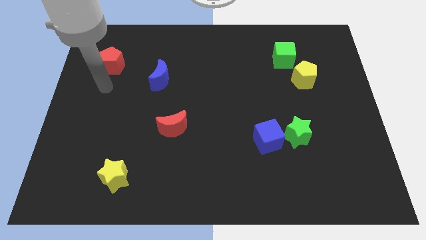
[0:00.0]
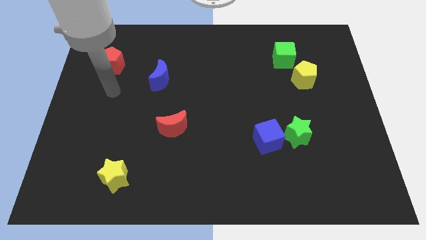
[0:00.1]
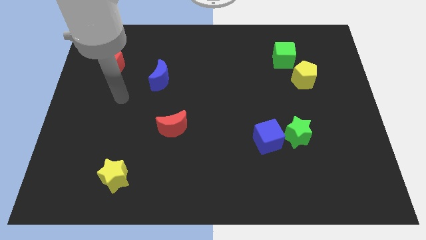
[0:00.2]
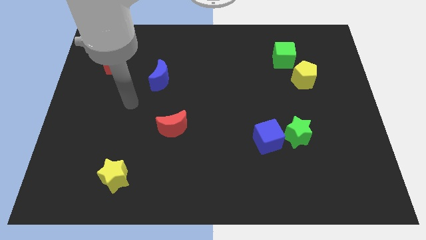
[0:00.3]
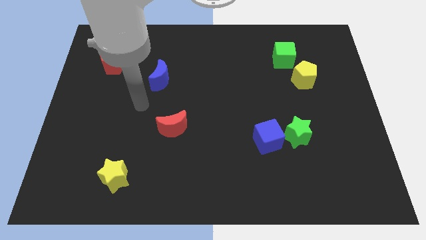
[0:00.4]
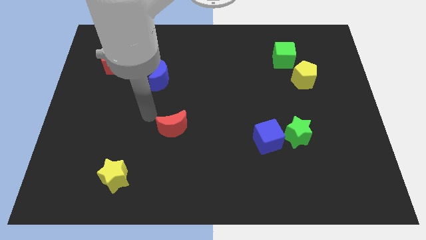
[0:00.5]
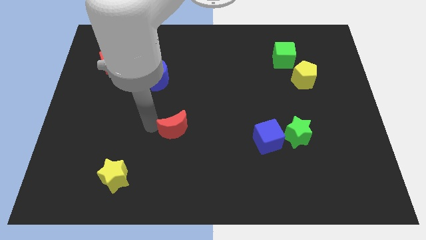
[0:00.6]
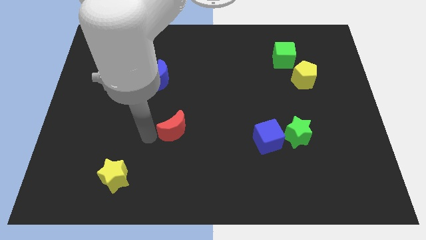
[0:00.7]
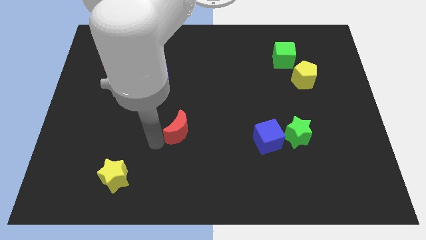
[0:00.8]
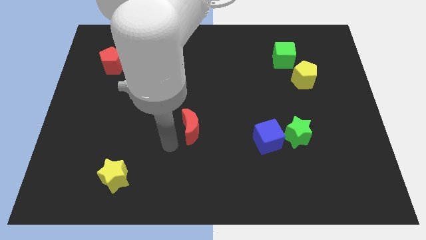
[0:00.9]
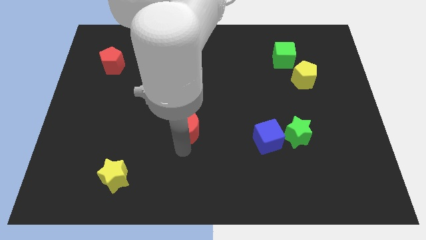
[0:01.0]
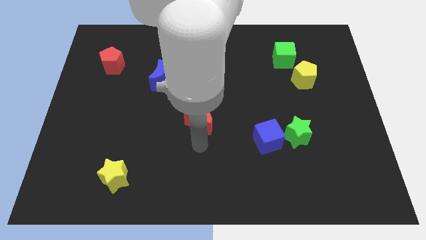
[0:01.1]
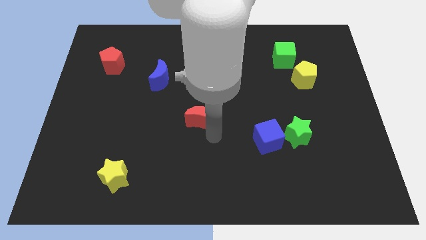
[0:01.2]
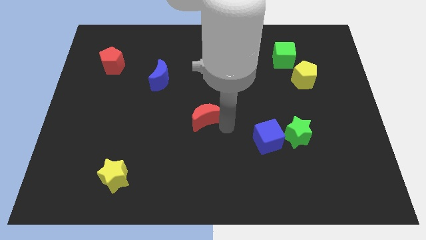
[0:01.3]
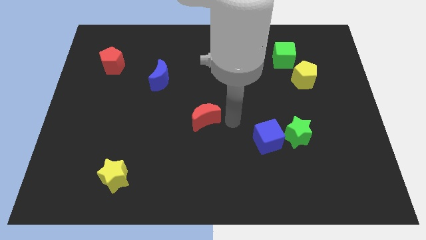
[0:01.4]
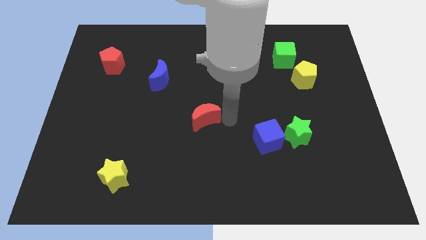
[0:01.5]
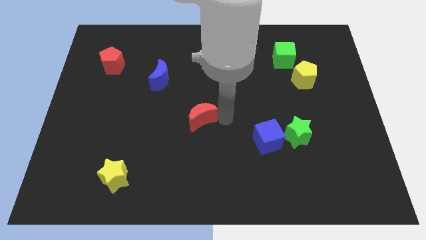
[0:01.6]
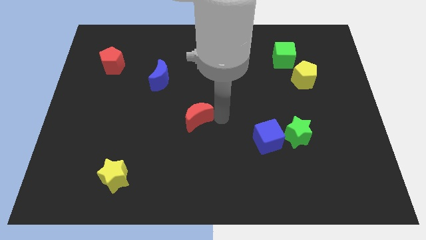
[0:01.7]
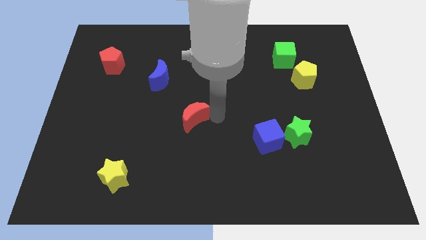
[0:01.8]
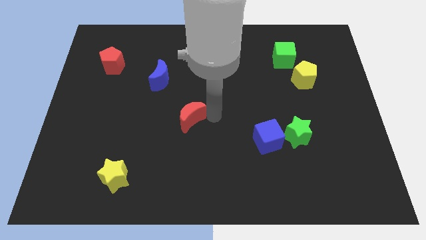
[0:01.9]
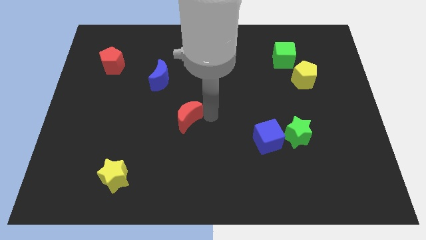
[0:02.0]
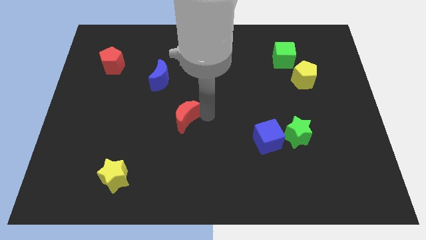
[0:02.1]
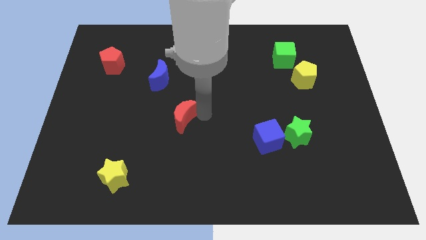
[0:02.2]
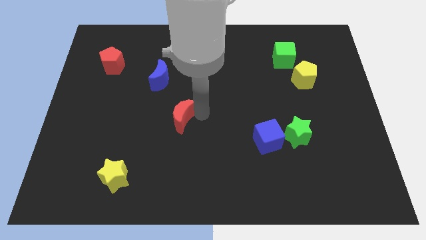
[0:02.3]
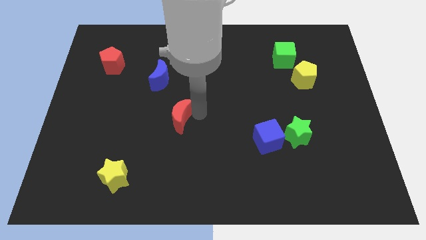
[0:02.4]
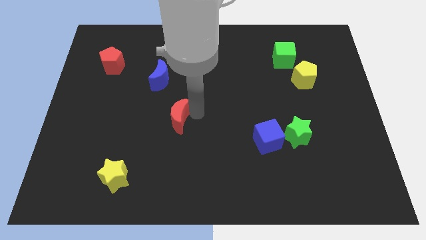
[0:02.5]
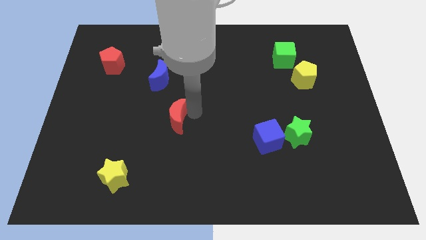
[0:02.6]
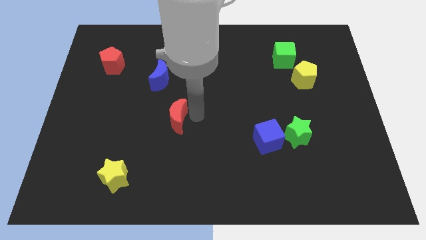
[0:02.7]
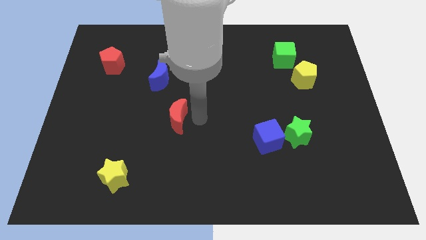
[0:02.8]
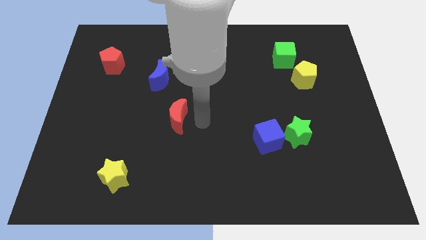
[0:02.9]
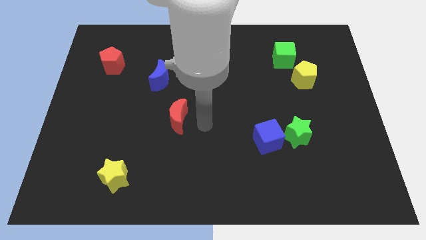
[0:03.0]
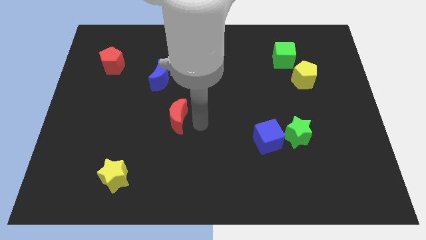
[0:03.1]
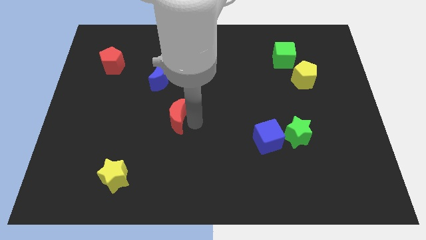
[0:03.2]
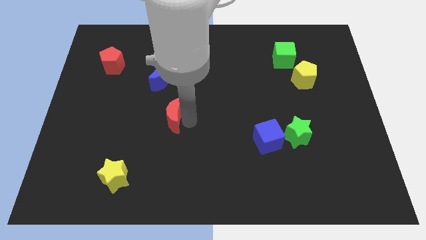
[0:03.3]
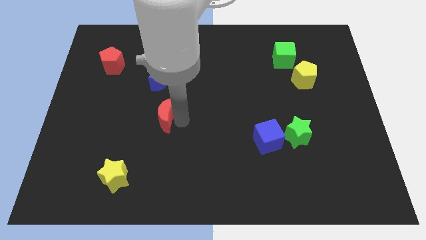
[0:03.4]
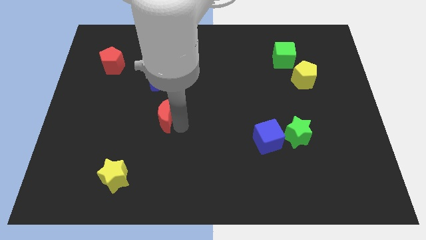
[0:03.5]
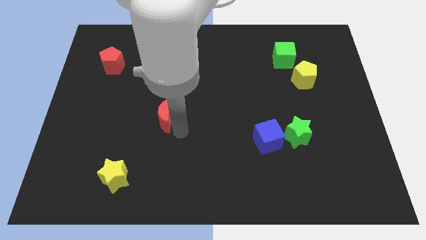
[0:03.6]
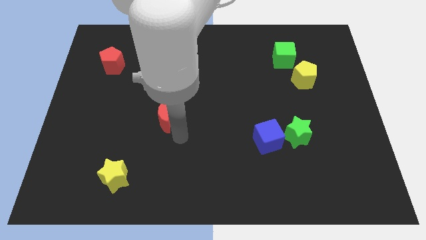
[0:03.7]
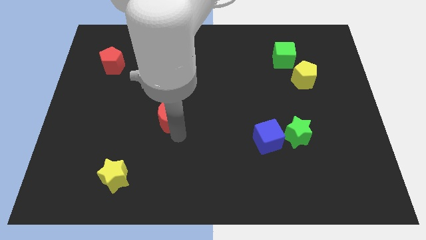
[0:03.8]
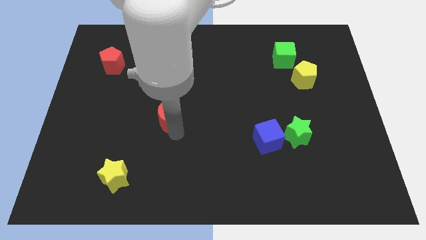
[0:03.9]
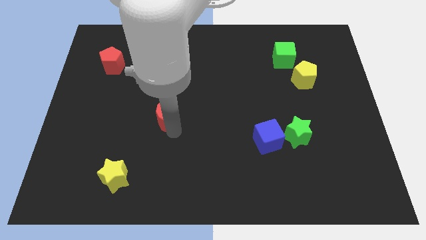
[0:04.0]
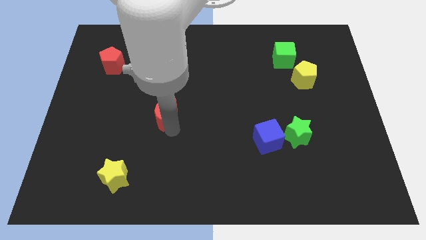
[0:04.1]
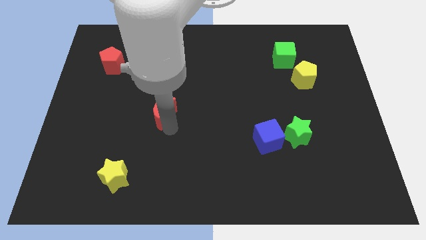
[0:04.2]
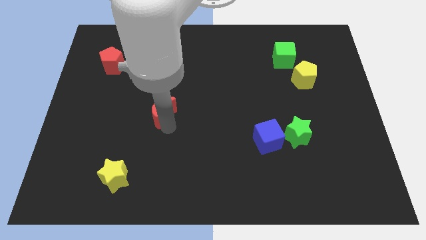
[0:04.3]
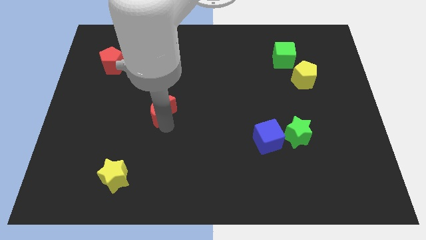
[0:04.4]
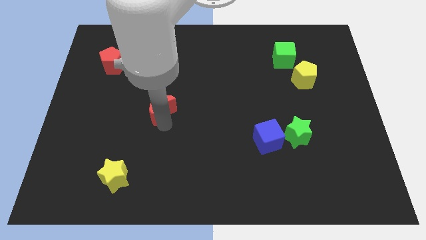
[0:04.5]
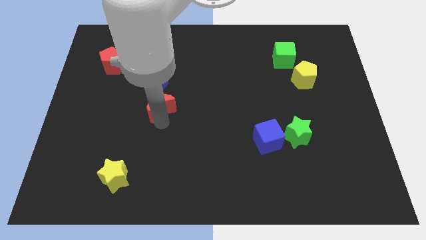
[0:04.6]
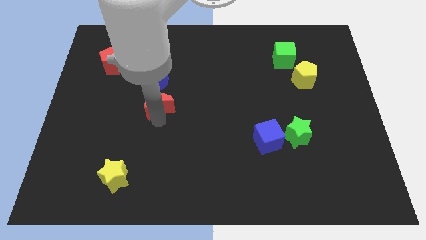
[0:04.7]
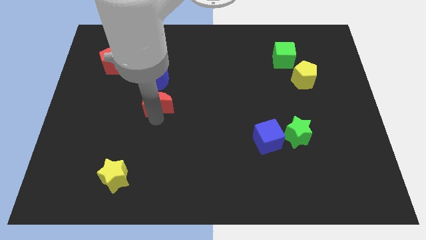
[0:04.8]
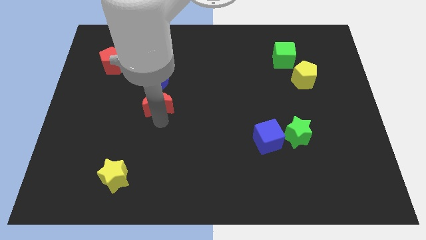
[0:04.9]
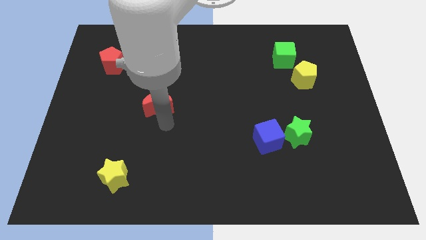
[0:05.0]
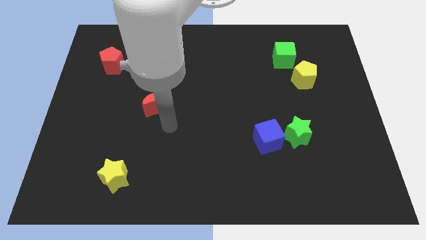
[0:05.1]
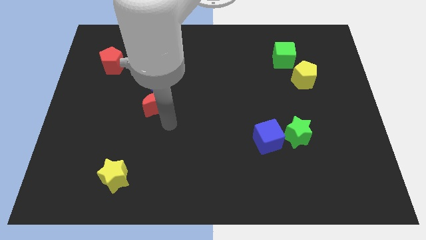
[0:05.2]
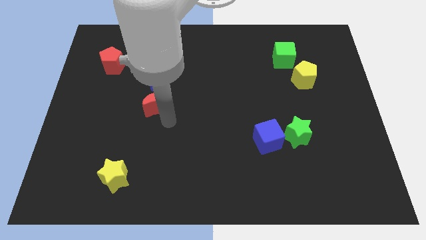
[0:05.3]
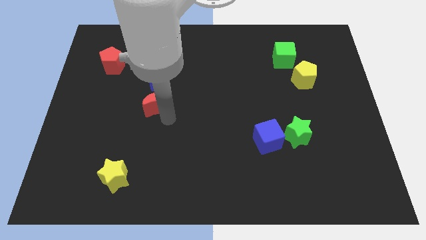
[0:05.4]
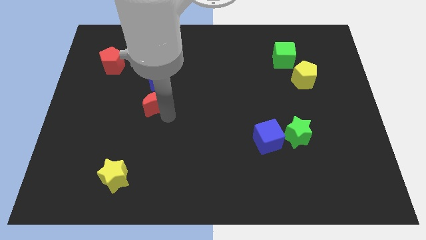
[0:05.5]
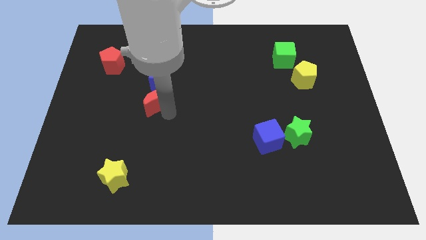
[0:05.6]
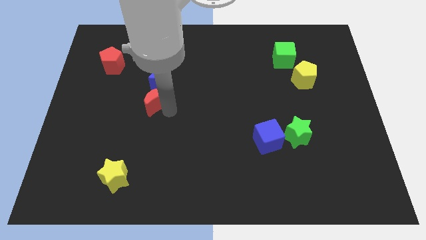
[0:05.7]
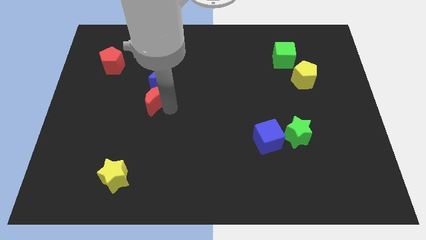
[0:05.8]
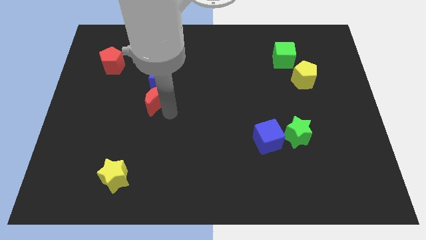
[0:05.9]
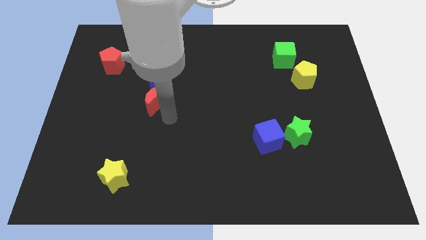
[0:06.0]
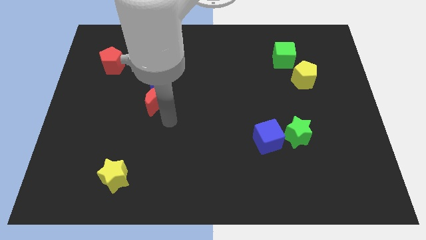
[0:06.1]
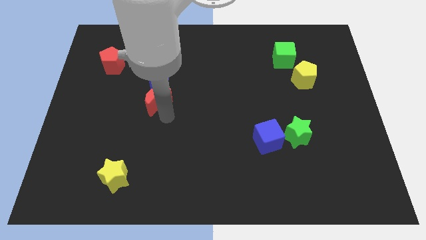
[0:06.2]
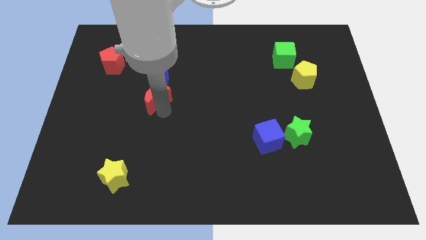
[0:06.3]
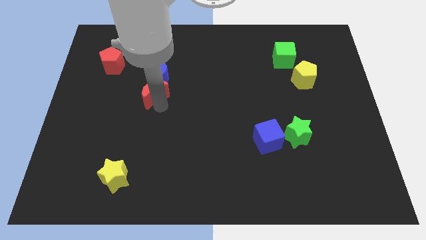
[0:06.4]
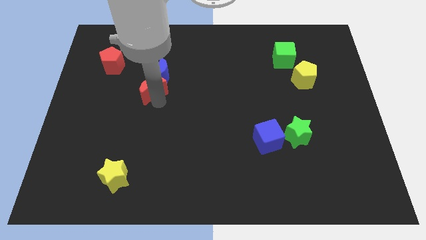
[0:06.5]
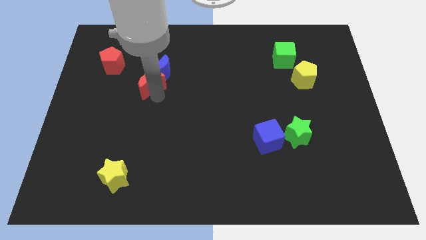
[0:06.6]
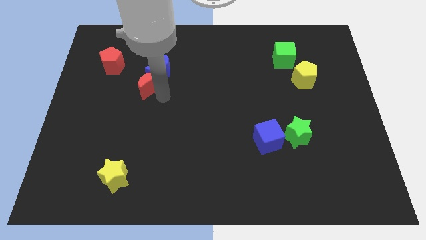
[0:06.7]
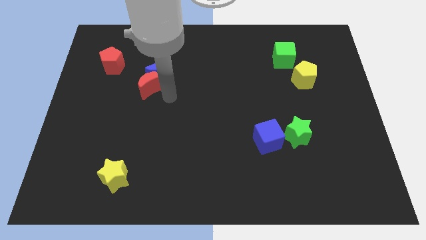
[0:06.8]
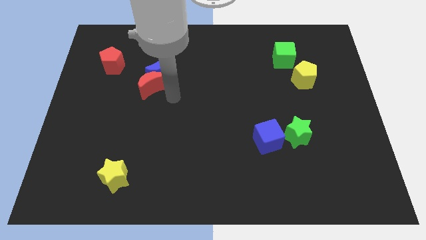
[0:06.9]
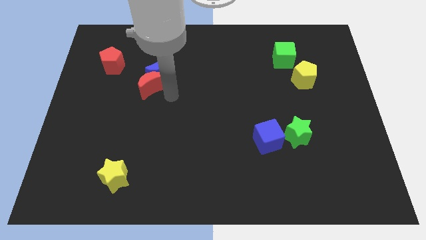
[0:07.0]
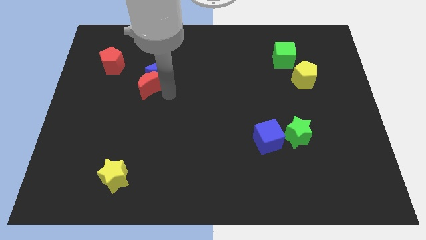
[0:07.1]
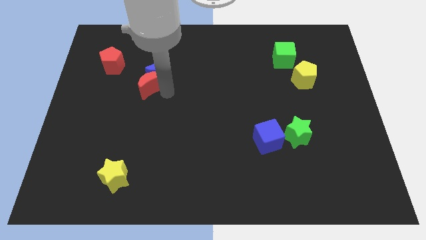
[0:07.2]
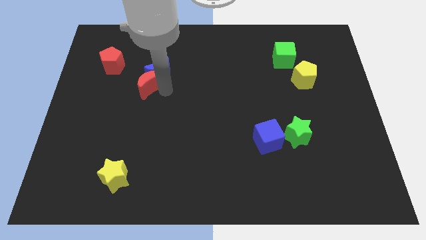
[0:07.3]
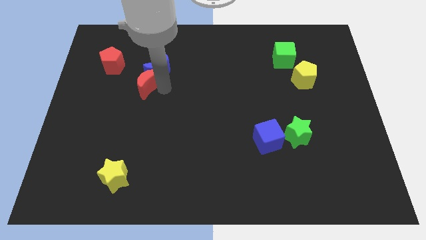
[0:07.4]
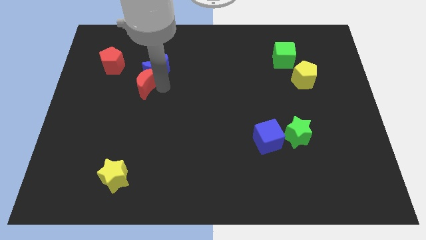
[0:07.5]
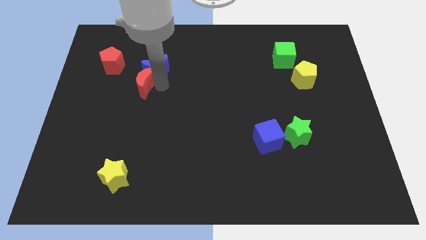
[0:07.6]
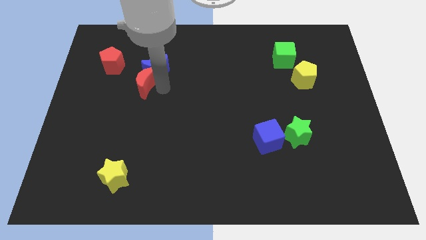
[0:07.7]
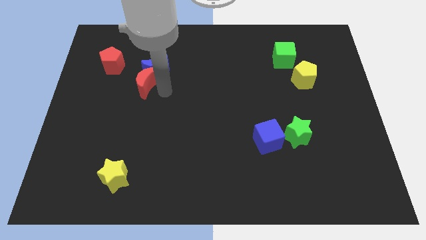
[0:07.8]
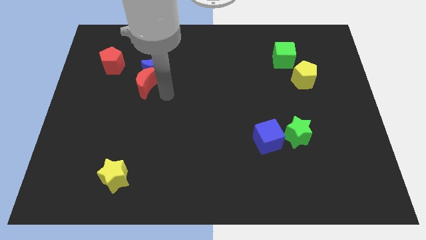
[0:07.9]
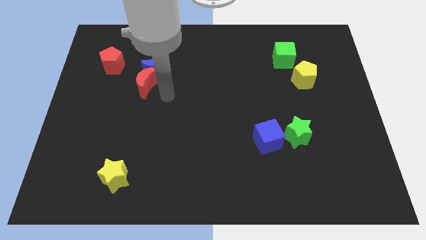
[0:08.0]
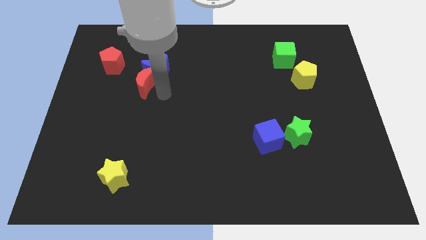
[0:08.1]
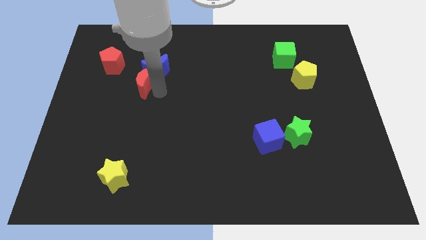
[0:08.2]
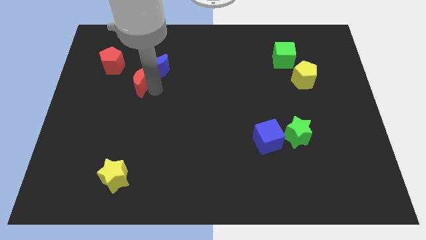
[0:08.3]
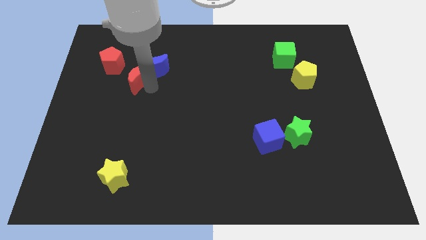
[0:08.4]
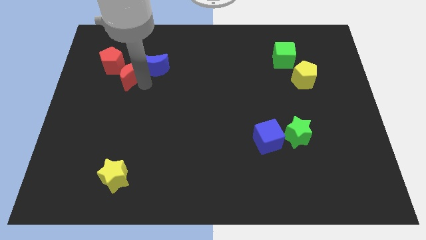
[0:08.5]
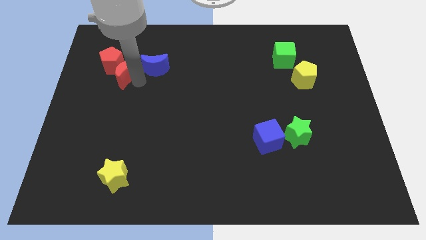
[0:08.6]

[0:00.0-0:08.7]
slide the red moon towards the red pentagon
